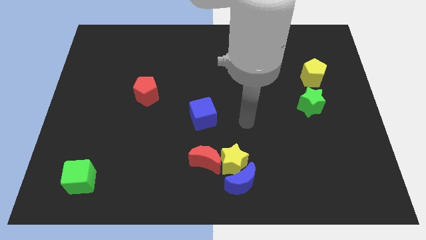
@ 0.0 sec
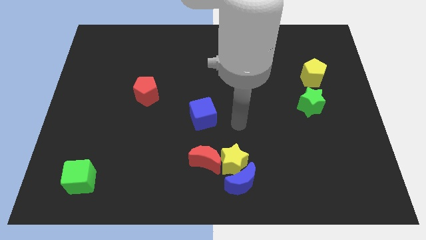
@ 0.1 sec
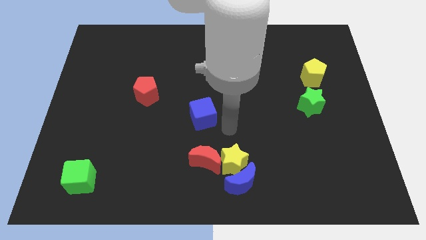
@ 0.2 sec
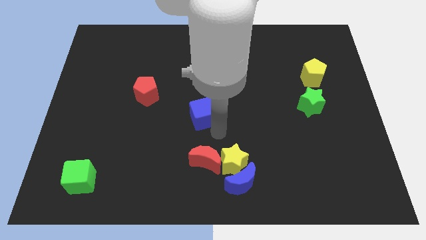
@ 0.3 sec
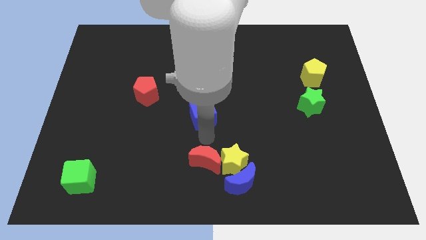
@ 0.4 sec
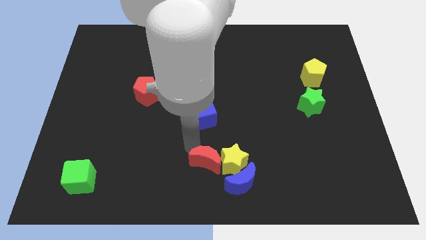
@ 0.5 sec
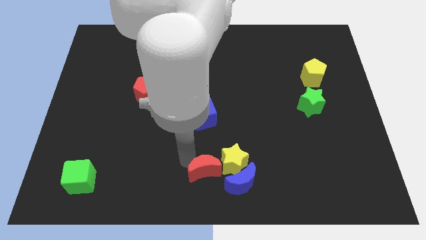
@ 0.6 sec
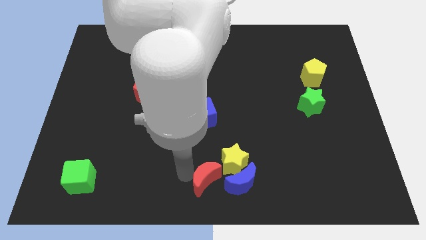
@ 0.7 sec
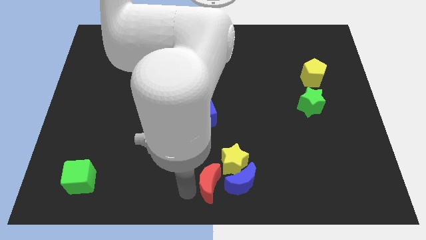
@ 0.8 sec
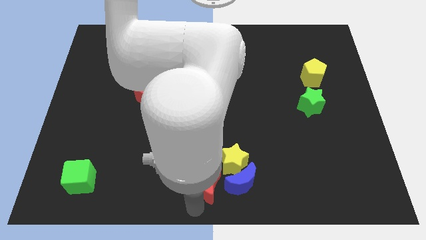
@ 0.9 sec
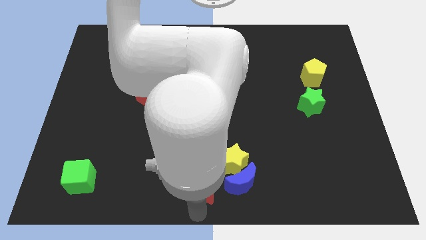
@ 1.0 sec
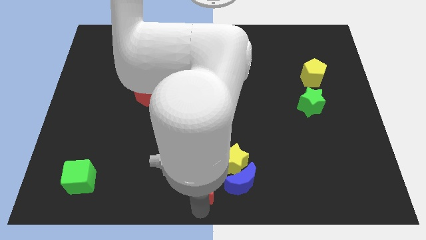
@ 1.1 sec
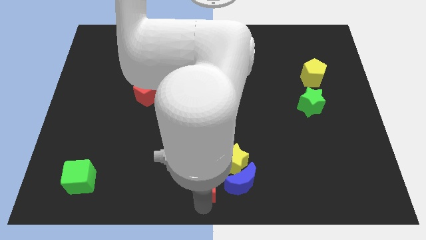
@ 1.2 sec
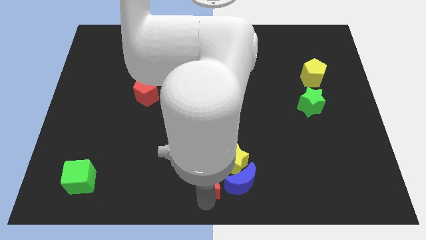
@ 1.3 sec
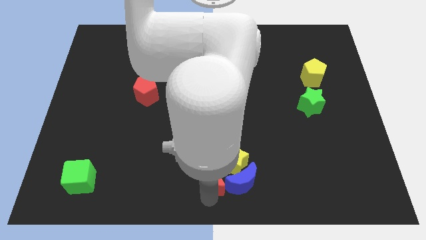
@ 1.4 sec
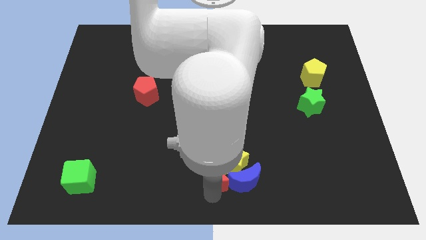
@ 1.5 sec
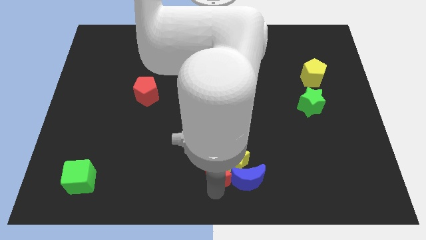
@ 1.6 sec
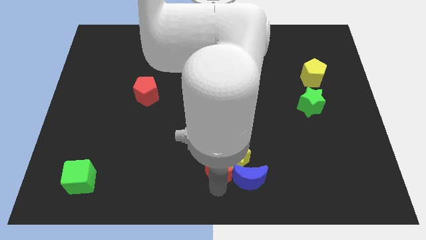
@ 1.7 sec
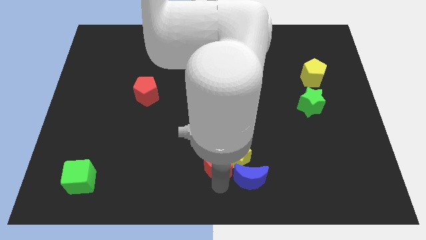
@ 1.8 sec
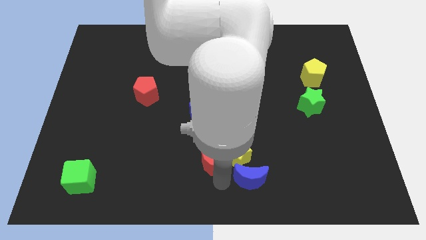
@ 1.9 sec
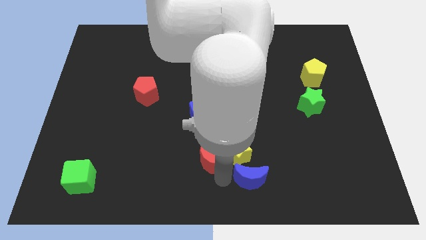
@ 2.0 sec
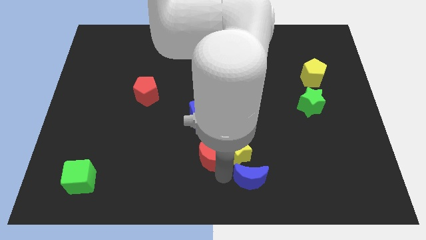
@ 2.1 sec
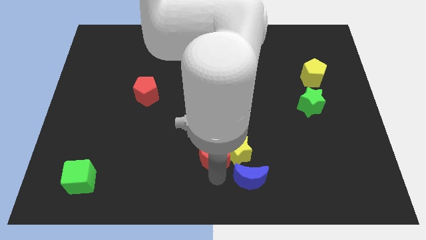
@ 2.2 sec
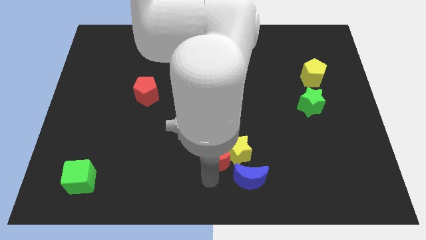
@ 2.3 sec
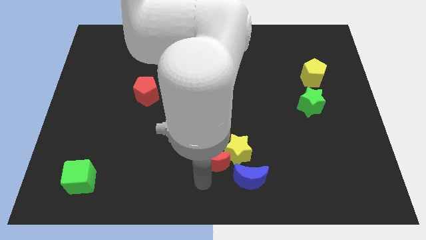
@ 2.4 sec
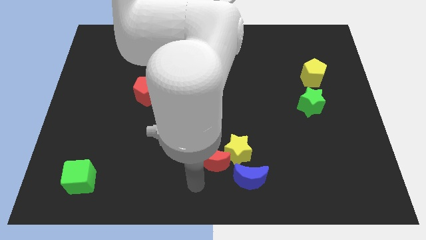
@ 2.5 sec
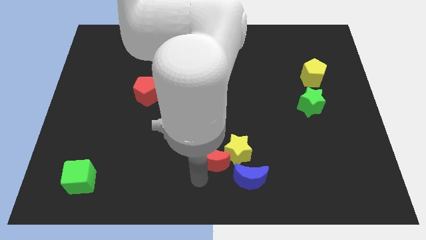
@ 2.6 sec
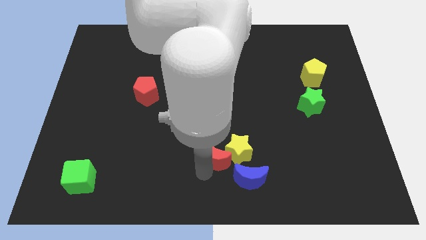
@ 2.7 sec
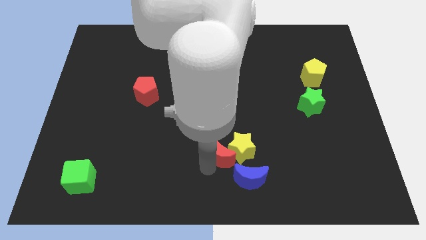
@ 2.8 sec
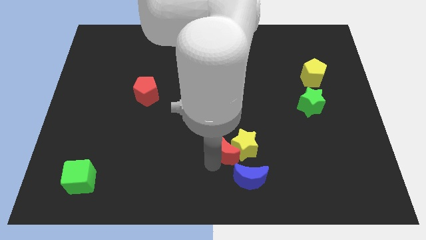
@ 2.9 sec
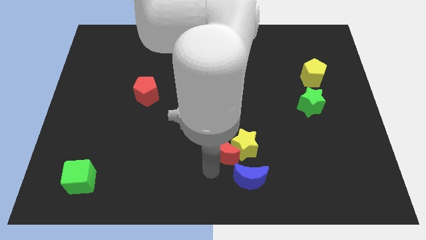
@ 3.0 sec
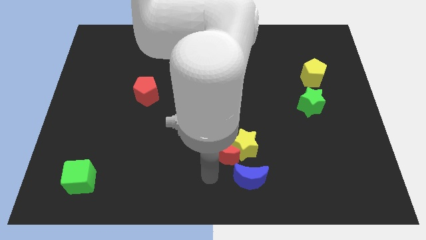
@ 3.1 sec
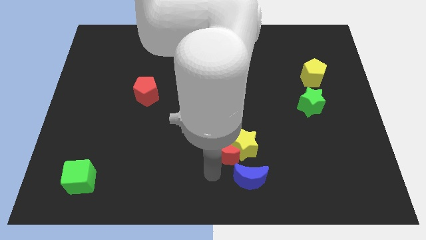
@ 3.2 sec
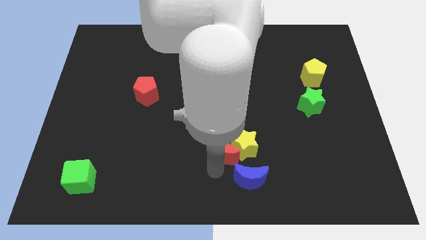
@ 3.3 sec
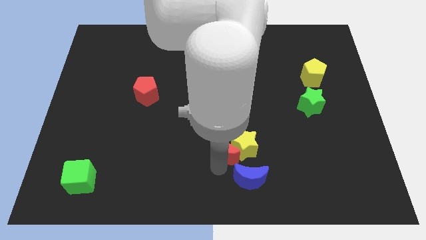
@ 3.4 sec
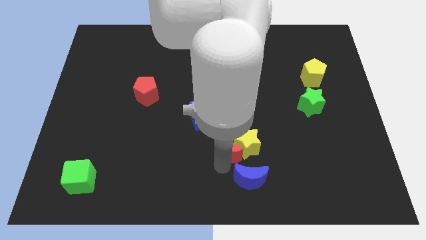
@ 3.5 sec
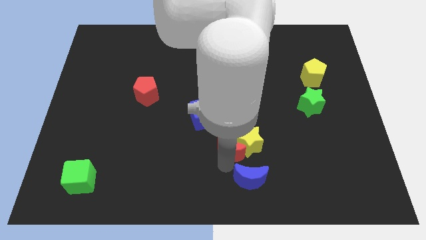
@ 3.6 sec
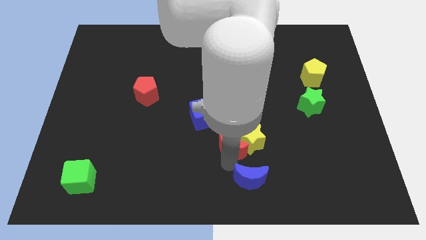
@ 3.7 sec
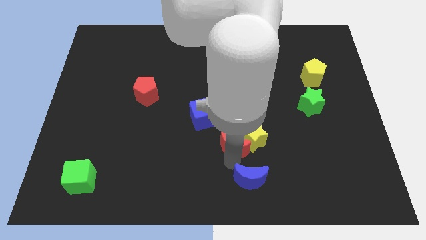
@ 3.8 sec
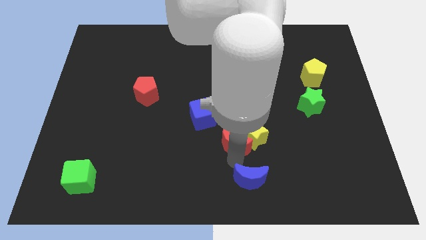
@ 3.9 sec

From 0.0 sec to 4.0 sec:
slightly push the red moon upwards and right

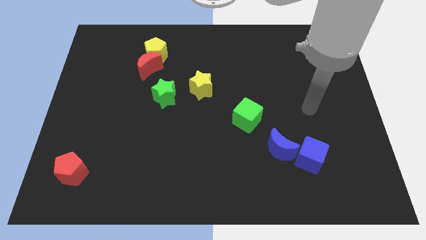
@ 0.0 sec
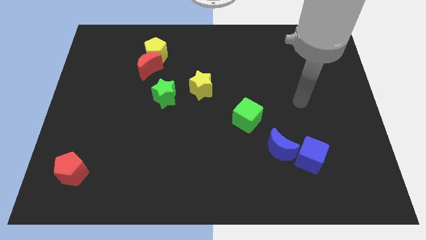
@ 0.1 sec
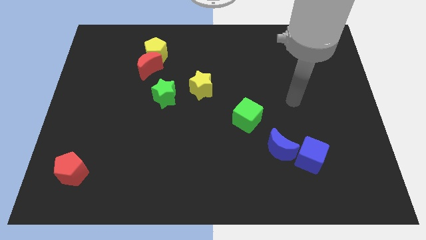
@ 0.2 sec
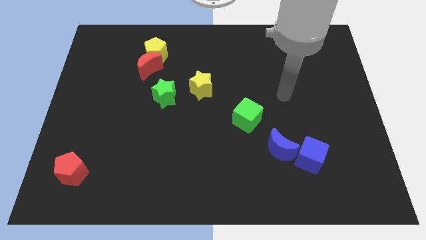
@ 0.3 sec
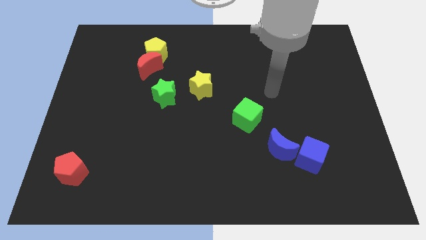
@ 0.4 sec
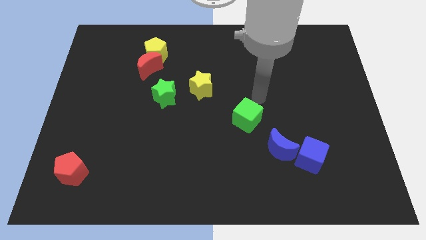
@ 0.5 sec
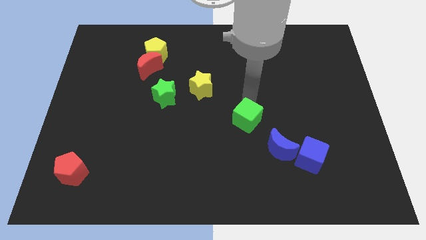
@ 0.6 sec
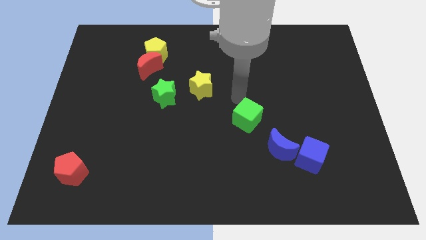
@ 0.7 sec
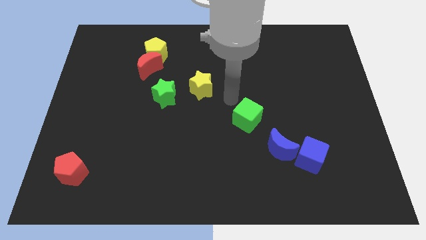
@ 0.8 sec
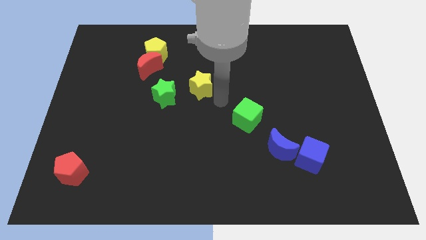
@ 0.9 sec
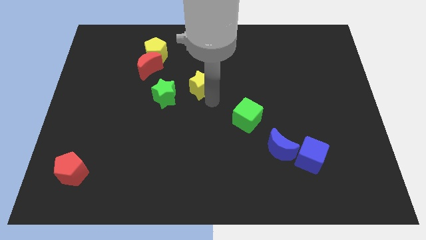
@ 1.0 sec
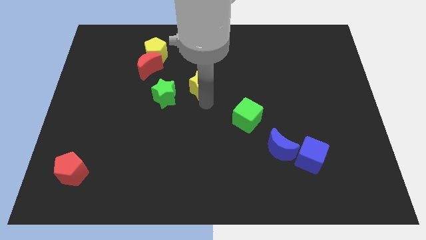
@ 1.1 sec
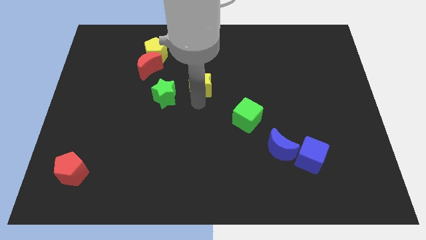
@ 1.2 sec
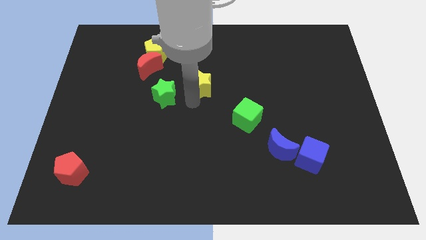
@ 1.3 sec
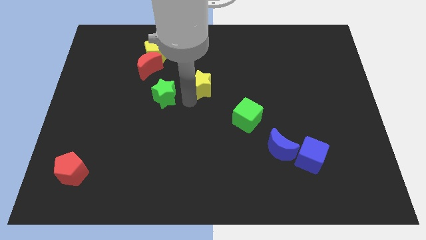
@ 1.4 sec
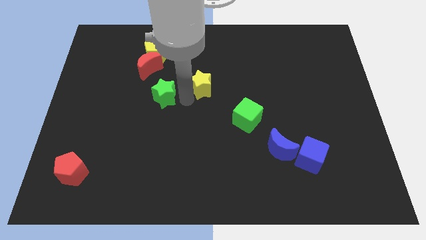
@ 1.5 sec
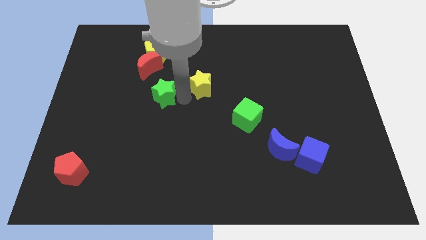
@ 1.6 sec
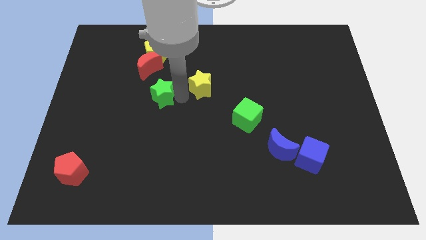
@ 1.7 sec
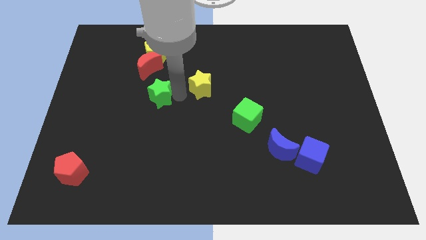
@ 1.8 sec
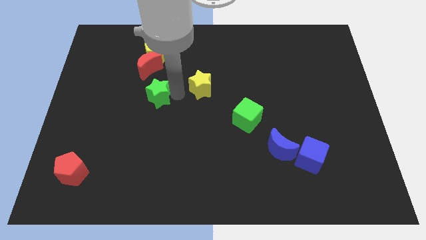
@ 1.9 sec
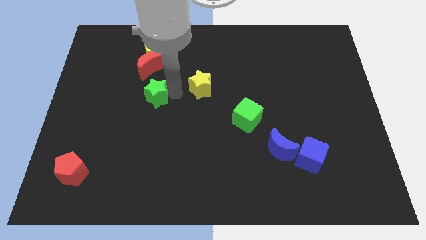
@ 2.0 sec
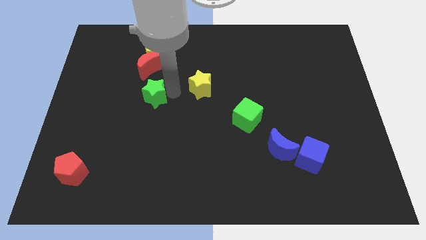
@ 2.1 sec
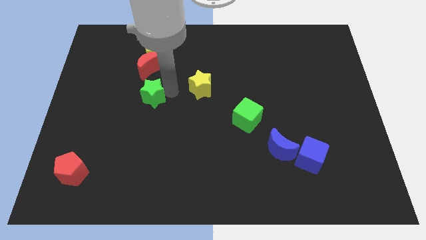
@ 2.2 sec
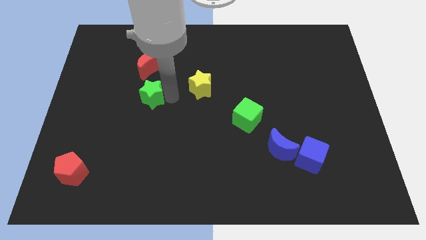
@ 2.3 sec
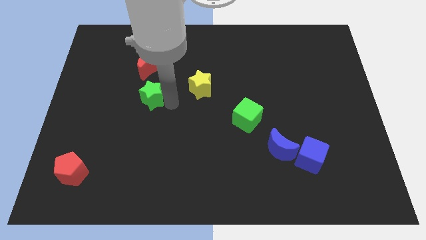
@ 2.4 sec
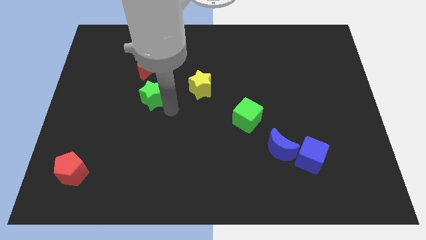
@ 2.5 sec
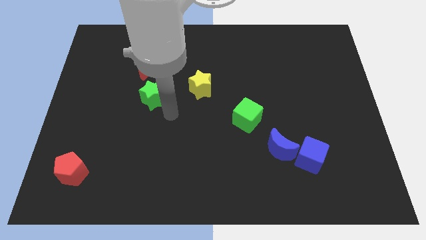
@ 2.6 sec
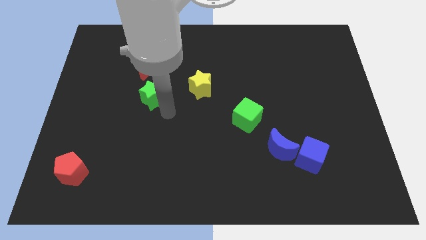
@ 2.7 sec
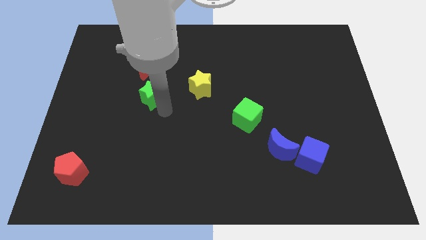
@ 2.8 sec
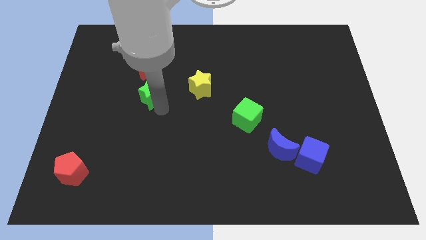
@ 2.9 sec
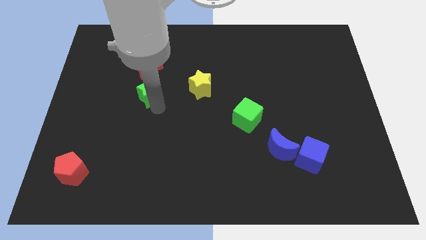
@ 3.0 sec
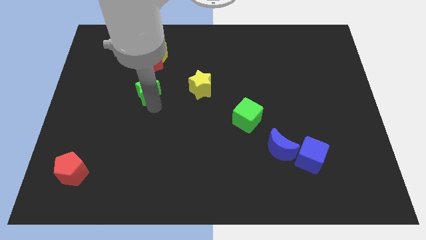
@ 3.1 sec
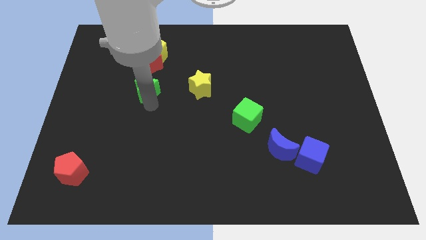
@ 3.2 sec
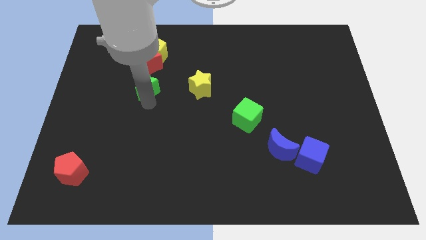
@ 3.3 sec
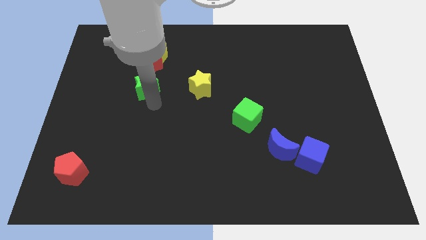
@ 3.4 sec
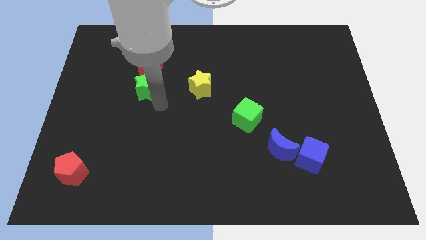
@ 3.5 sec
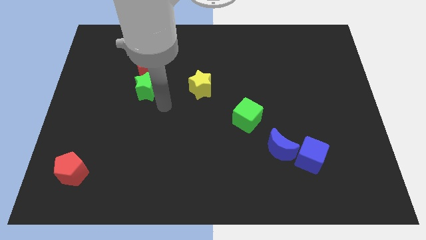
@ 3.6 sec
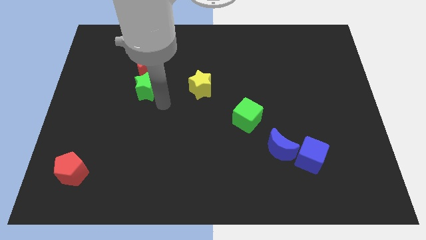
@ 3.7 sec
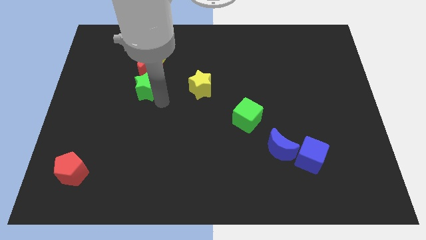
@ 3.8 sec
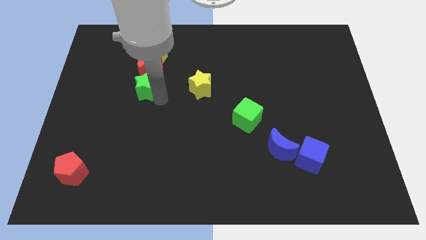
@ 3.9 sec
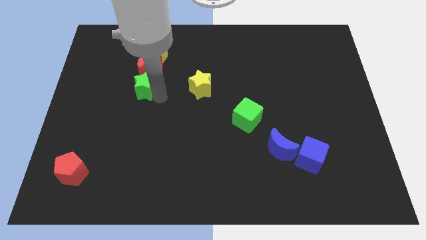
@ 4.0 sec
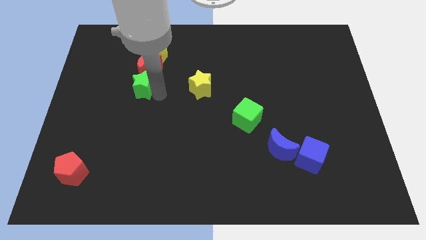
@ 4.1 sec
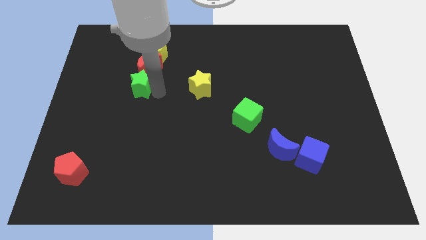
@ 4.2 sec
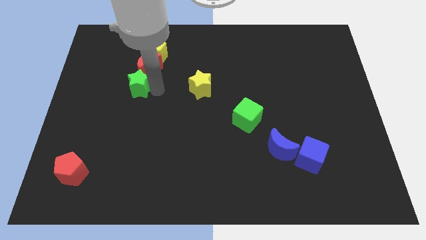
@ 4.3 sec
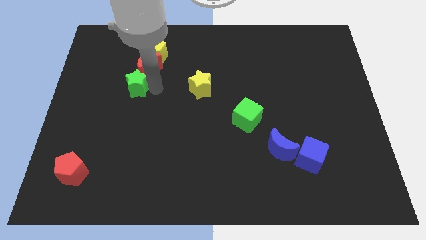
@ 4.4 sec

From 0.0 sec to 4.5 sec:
push the green star somewhat upwards and to the left diagonally
